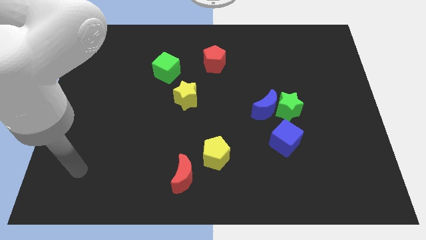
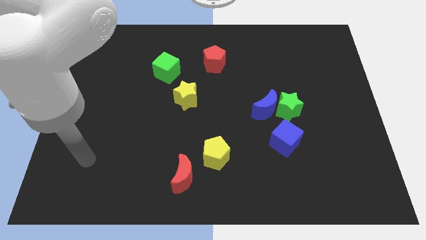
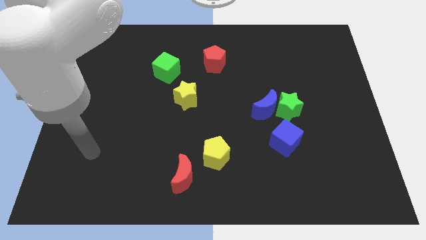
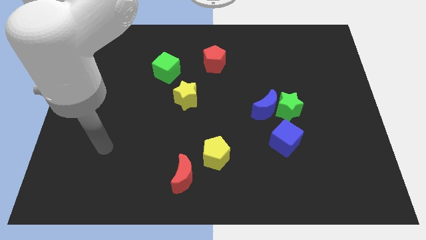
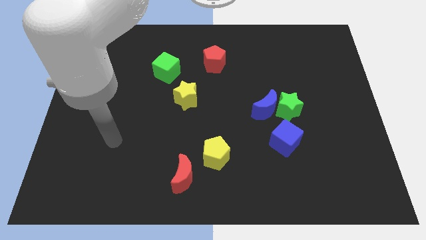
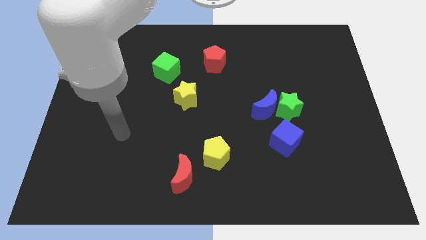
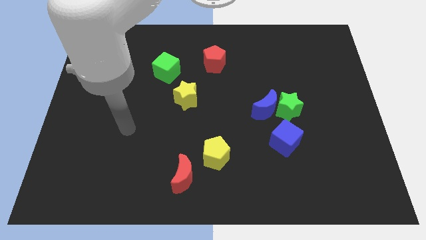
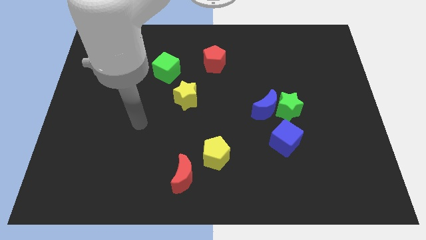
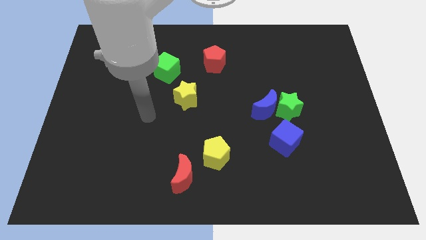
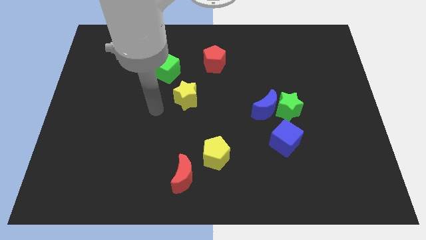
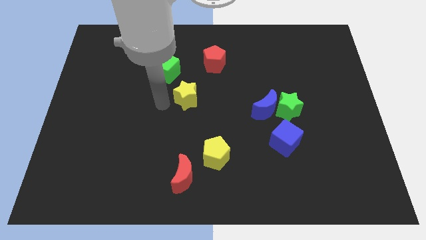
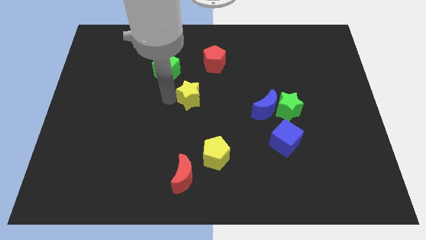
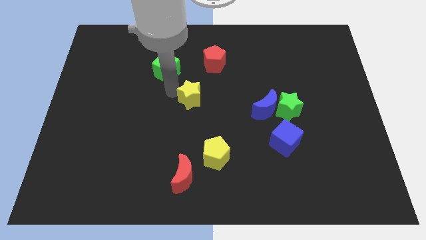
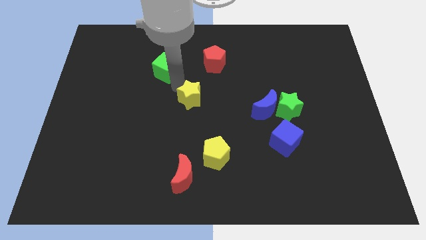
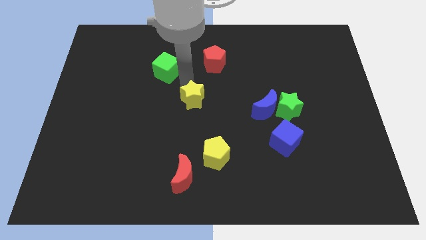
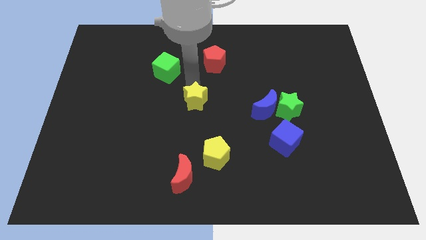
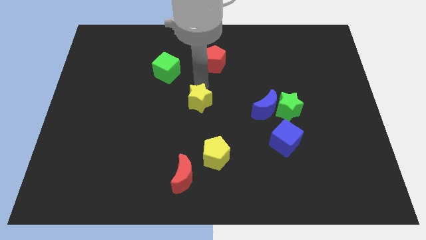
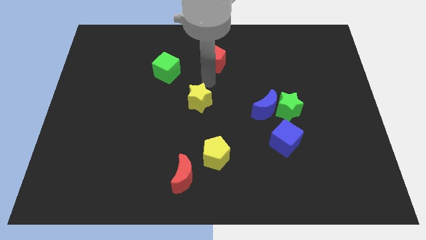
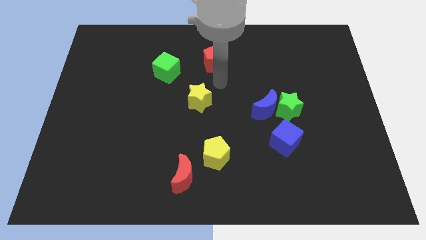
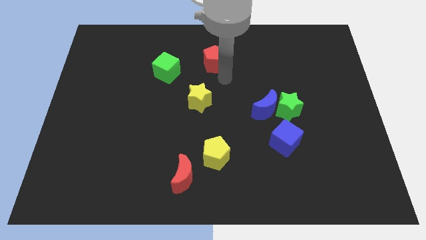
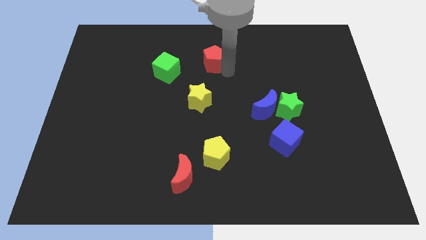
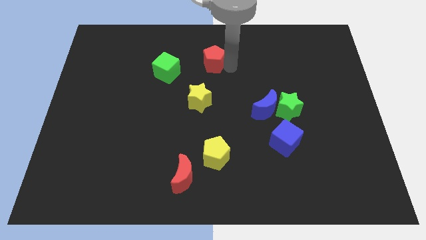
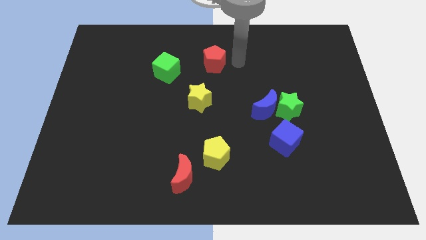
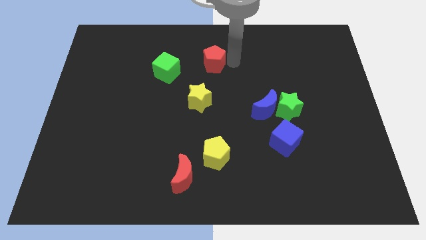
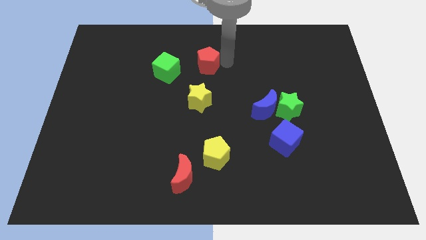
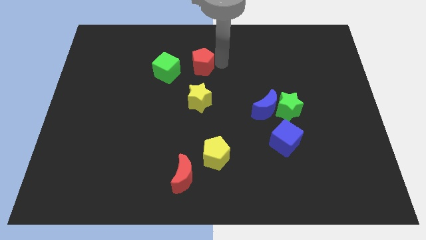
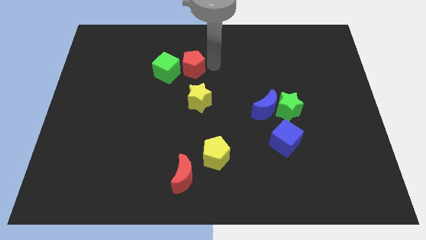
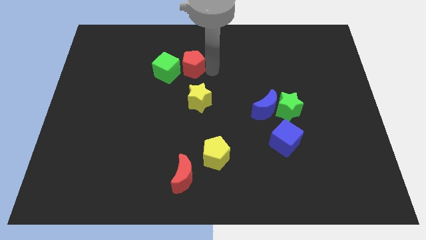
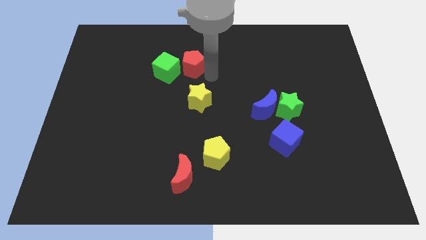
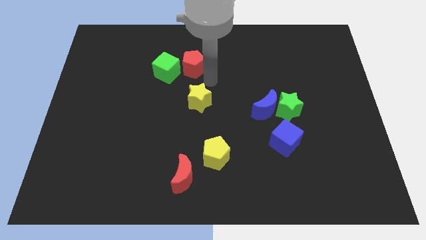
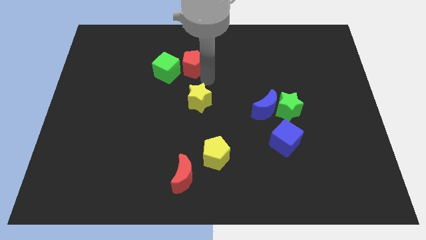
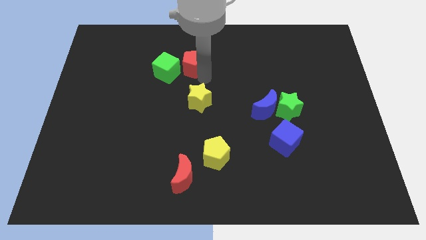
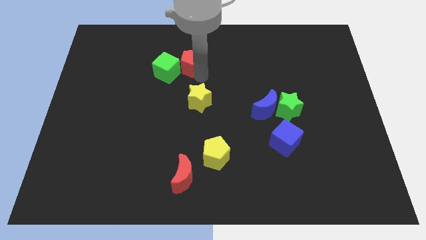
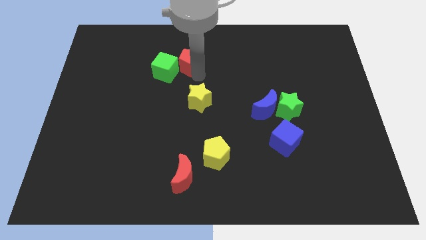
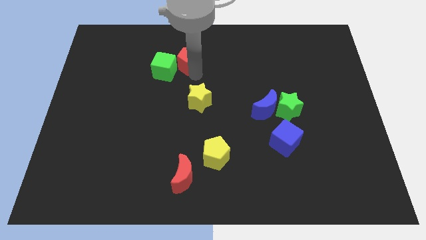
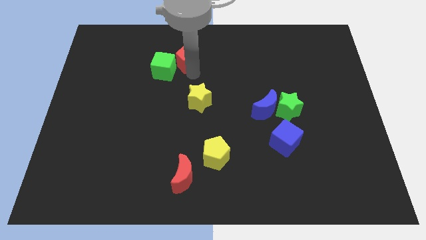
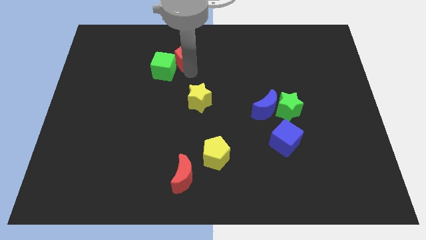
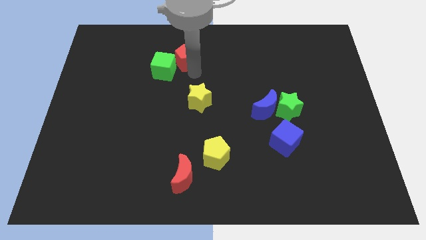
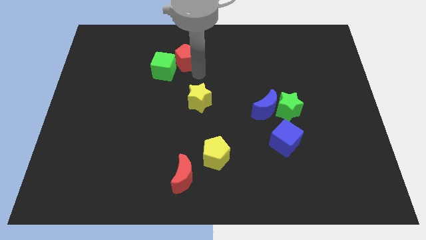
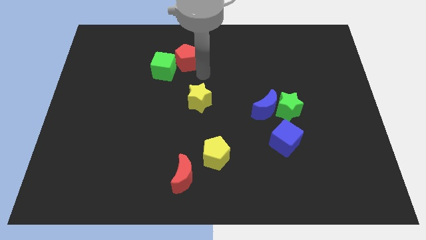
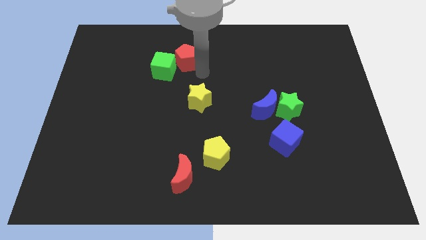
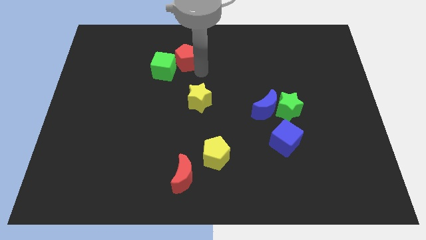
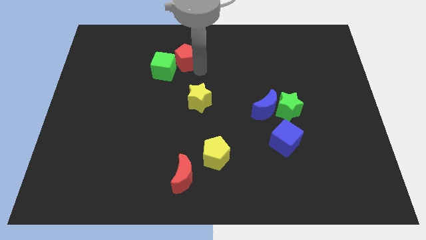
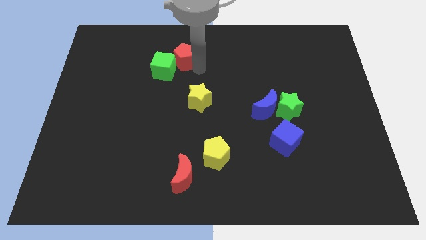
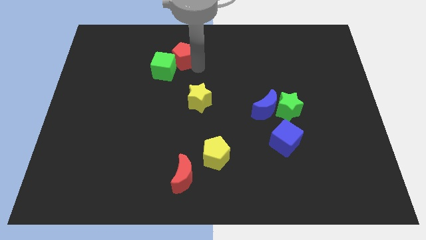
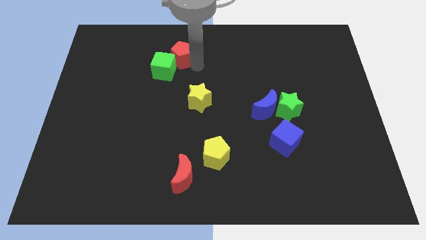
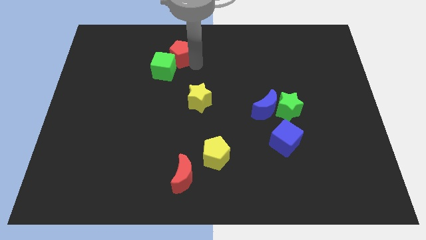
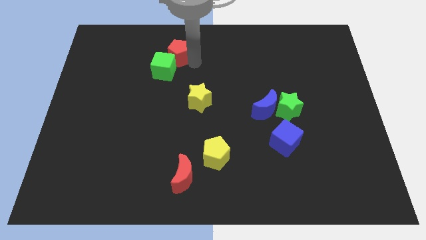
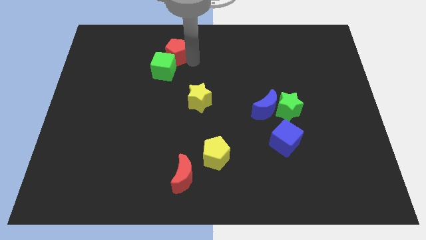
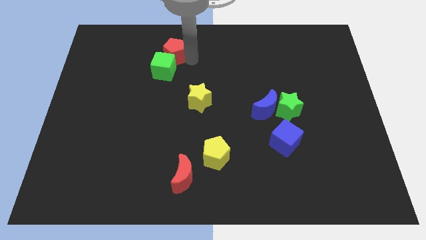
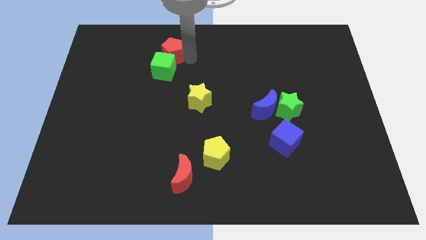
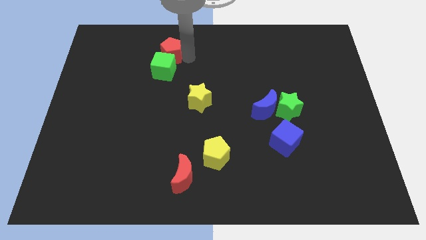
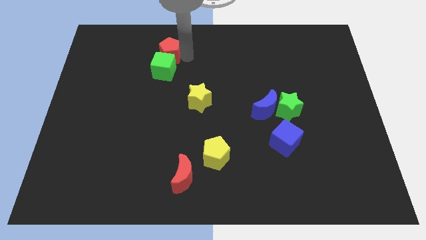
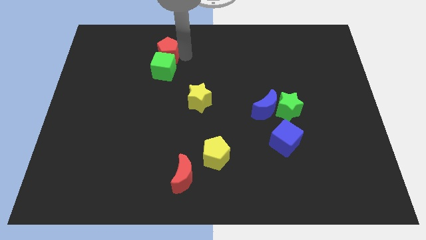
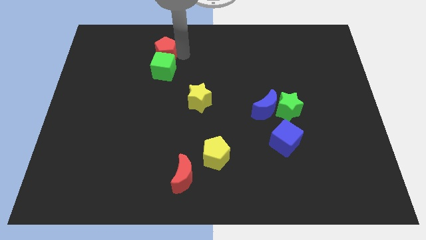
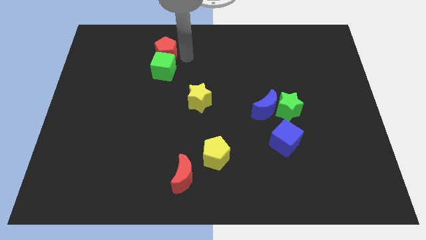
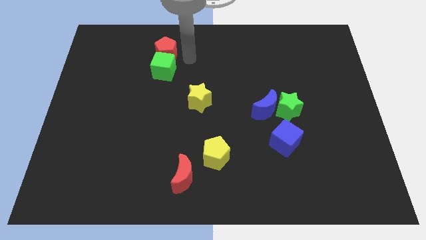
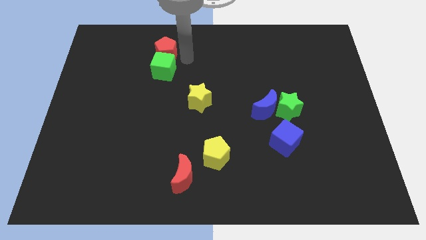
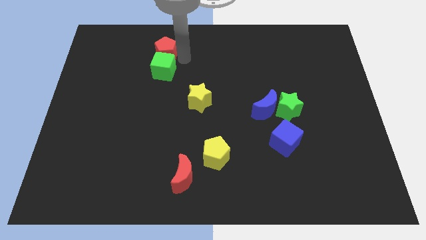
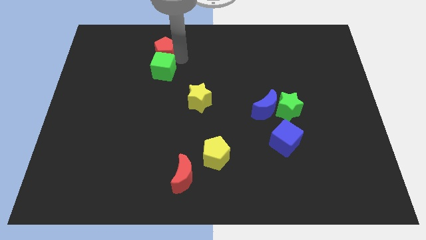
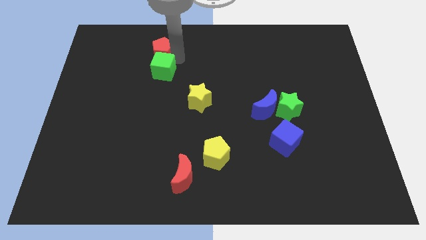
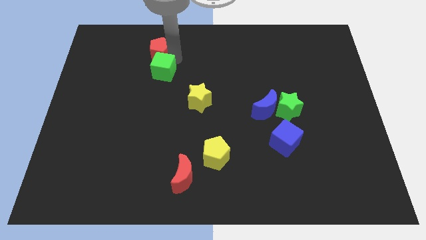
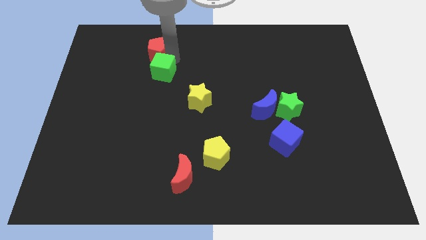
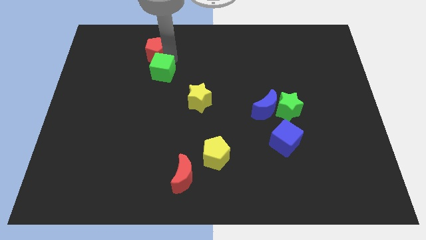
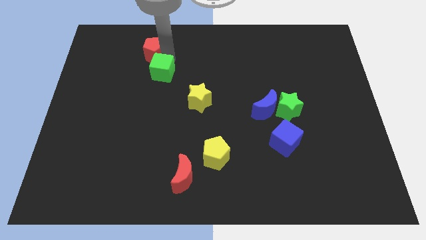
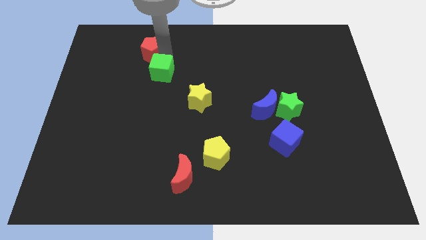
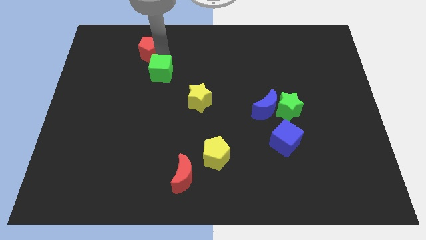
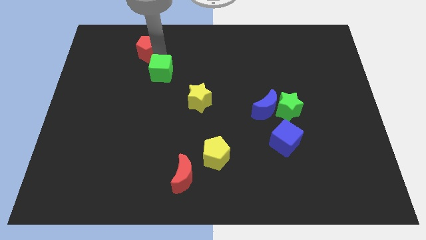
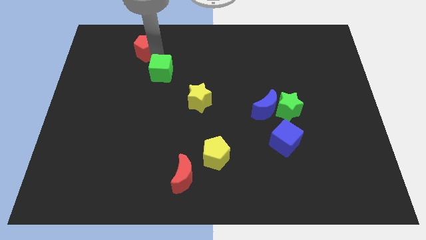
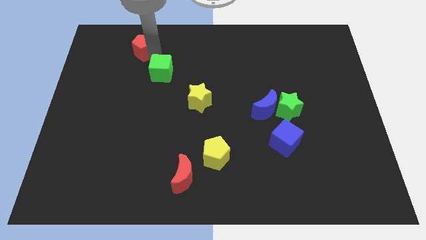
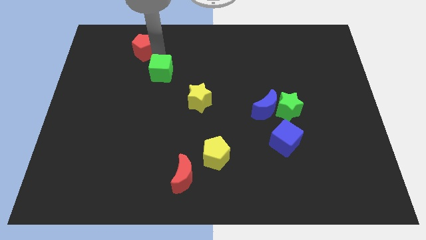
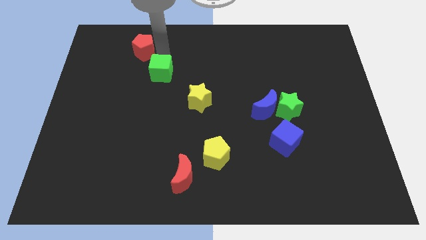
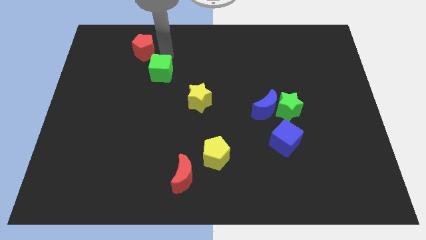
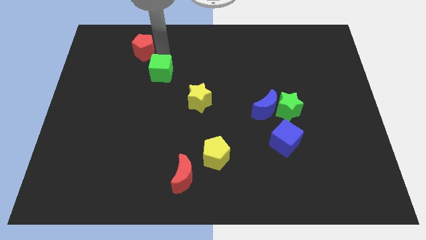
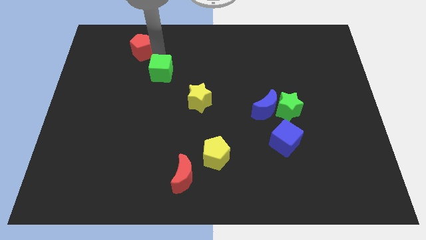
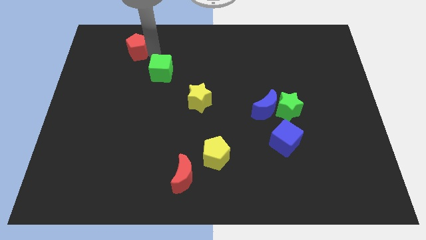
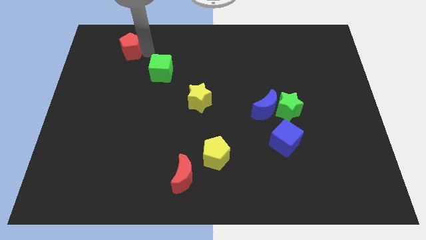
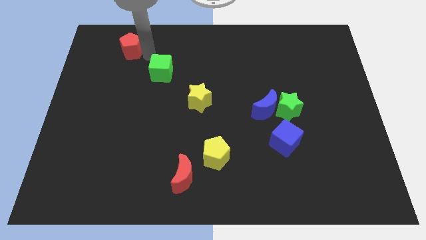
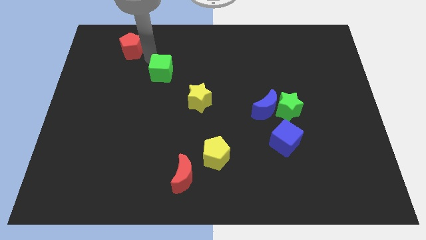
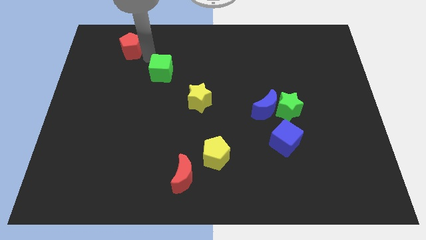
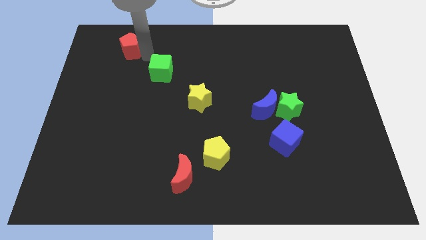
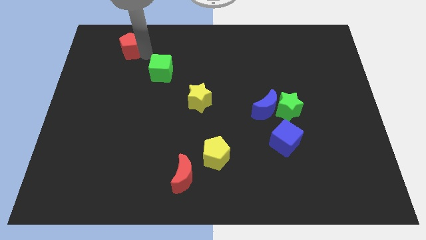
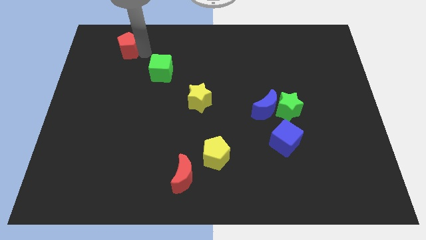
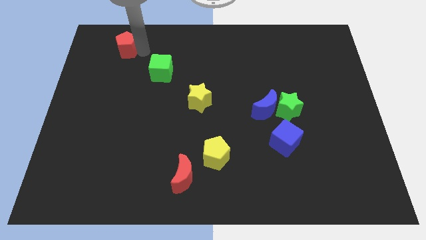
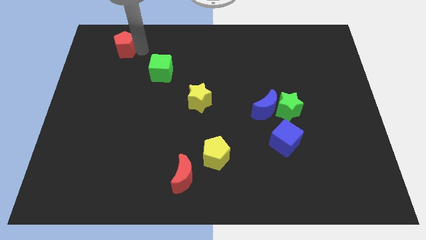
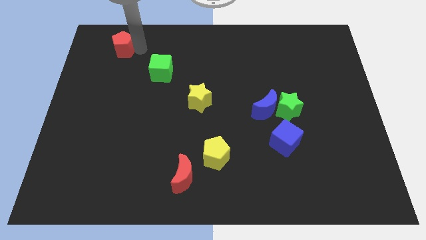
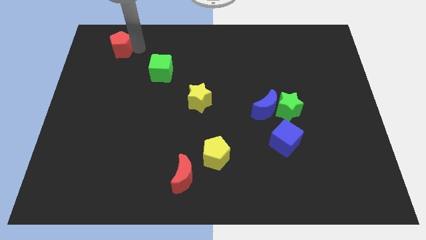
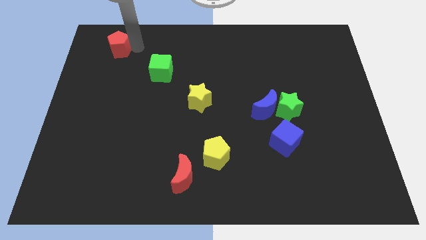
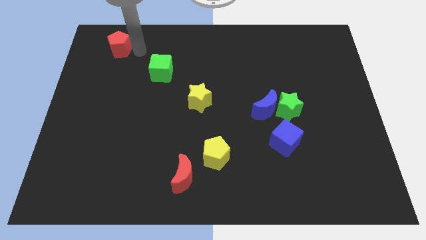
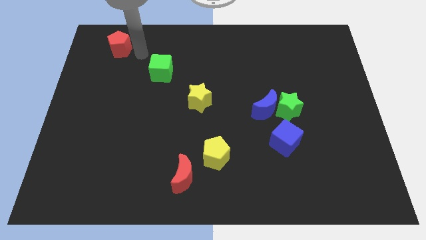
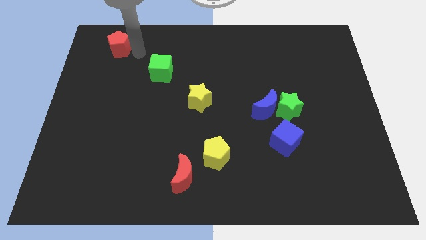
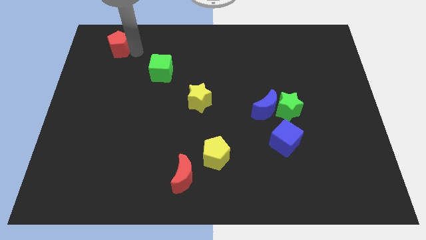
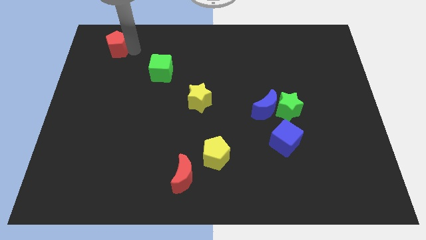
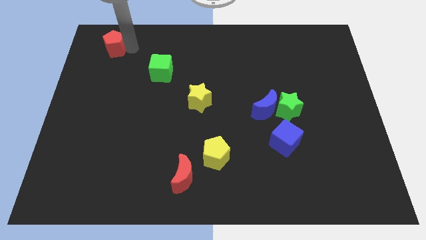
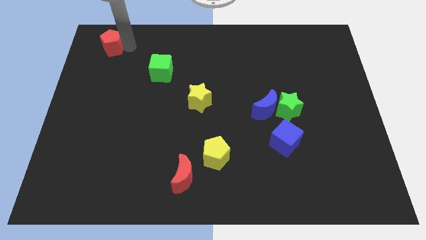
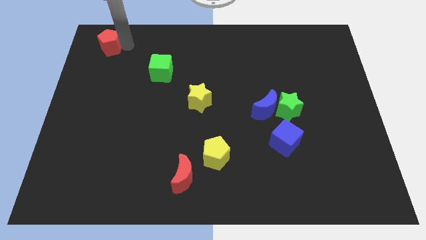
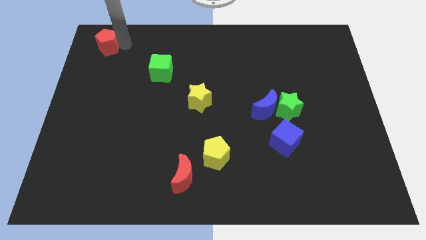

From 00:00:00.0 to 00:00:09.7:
put the red pentagon to the upper left corner
